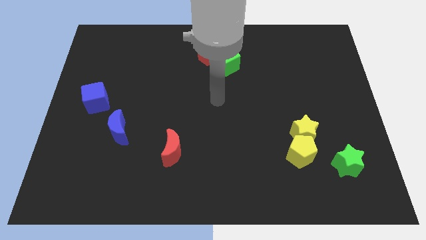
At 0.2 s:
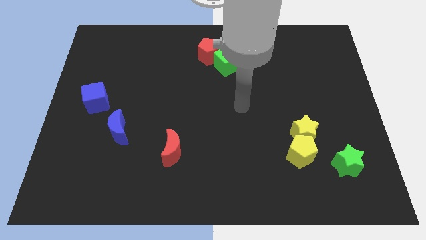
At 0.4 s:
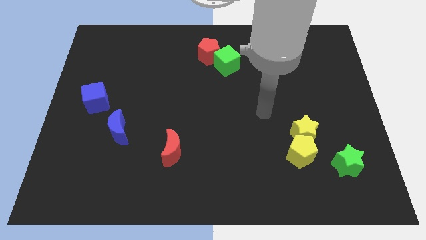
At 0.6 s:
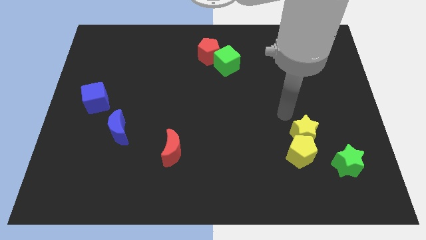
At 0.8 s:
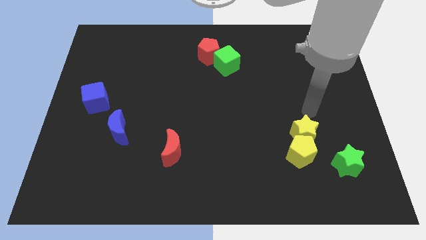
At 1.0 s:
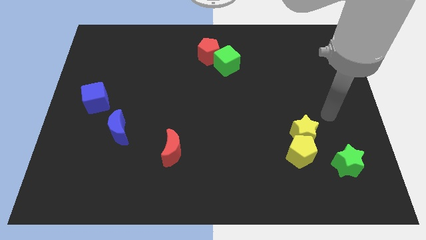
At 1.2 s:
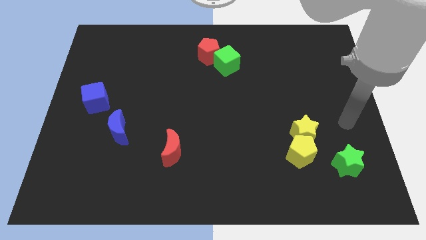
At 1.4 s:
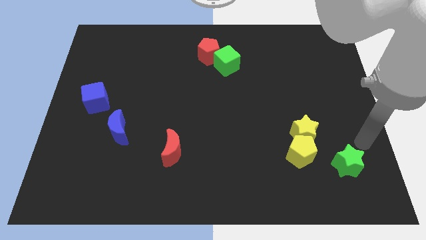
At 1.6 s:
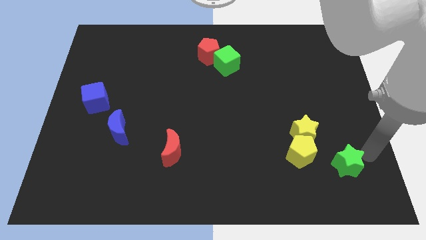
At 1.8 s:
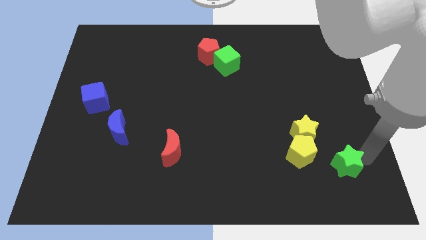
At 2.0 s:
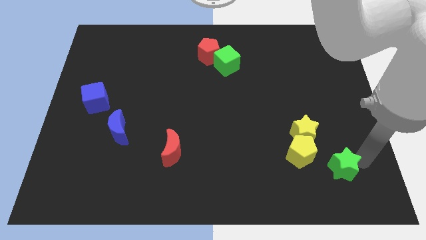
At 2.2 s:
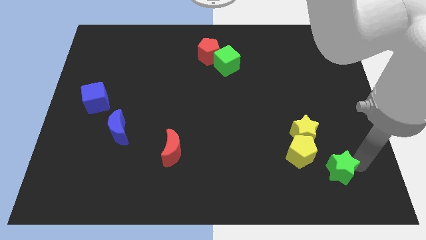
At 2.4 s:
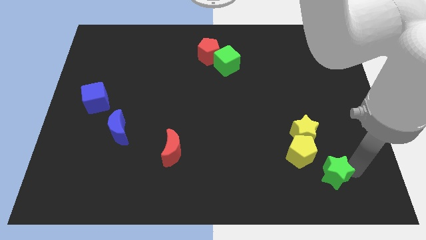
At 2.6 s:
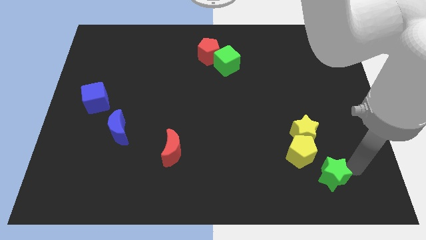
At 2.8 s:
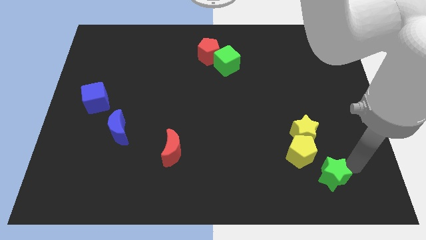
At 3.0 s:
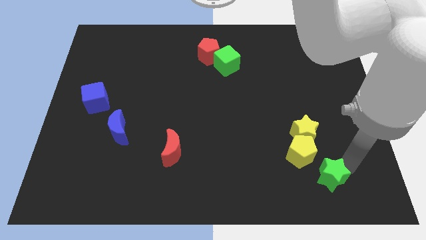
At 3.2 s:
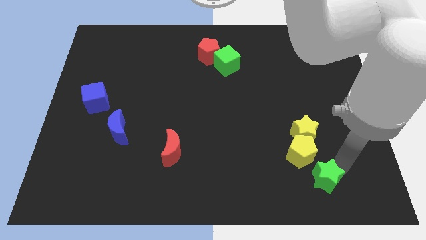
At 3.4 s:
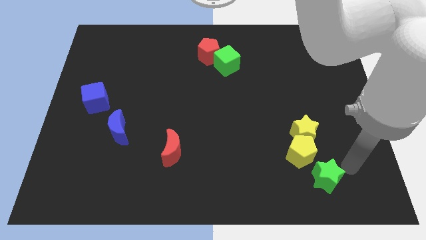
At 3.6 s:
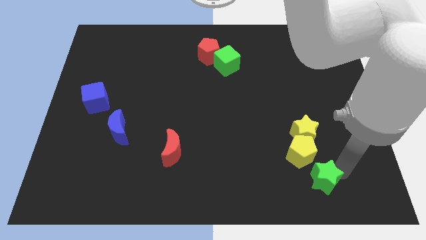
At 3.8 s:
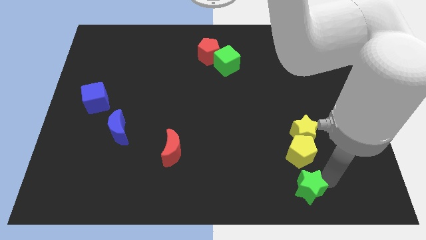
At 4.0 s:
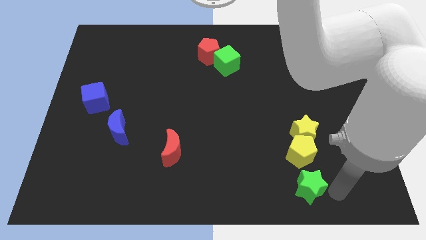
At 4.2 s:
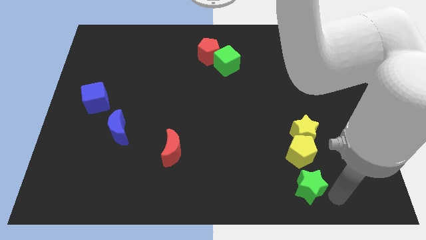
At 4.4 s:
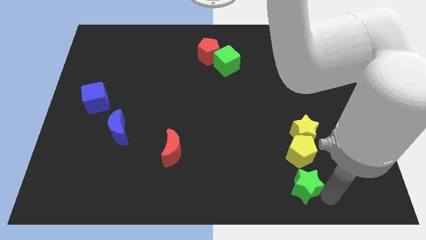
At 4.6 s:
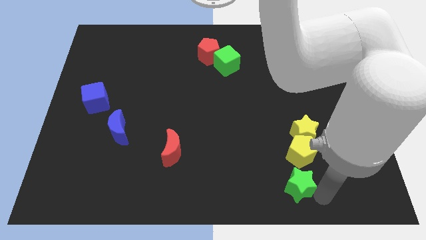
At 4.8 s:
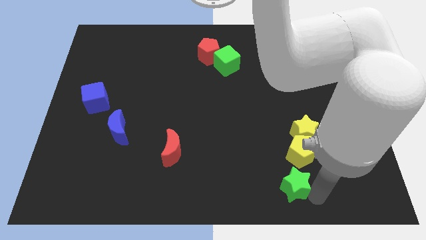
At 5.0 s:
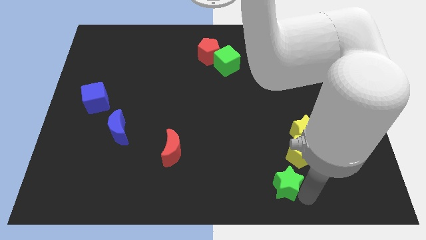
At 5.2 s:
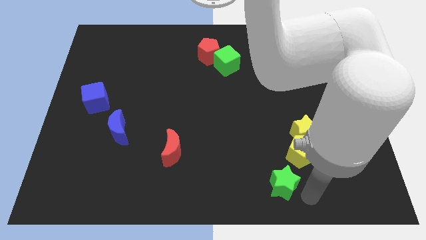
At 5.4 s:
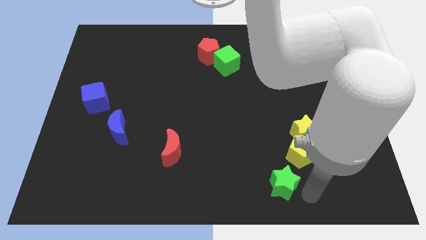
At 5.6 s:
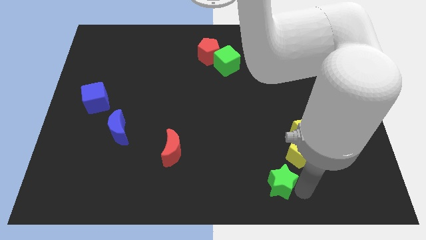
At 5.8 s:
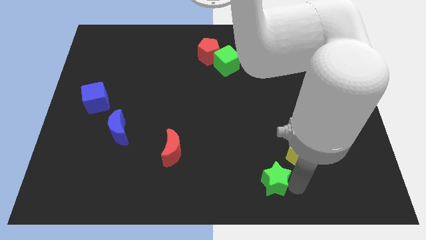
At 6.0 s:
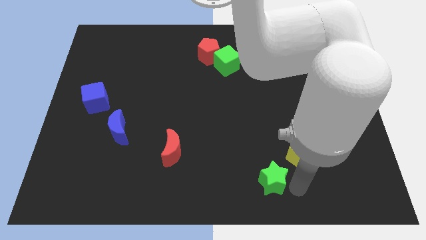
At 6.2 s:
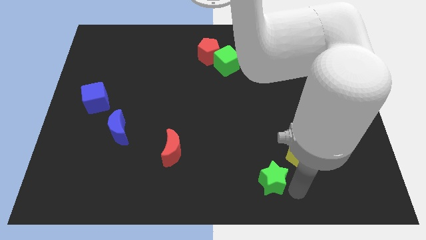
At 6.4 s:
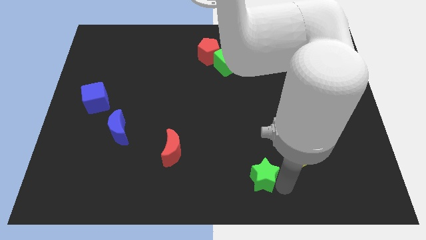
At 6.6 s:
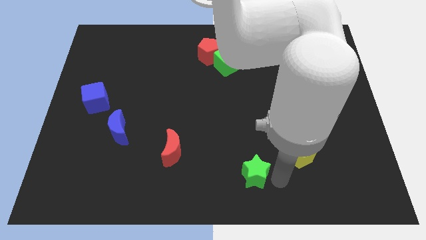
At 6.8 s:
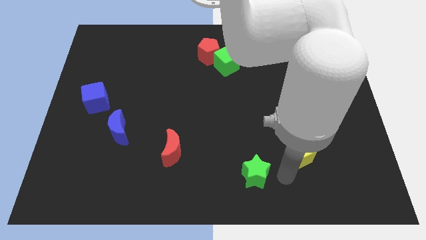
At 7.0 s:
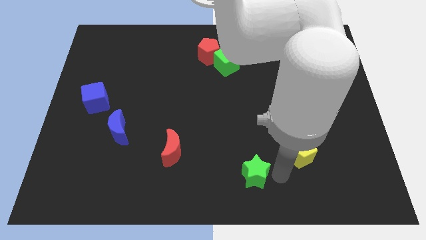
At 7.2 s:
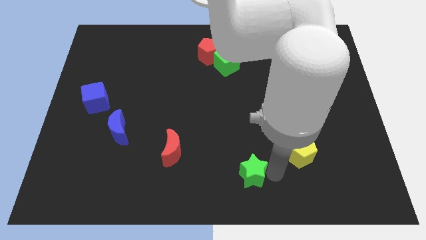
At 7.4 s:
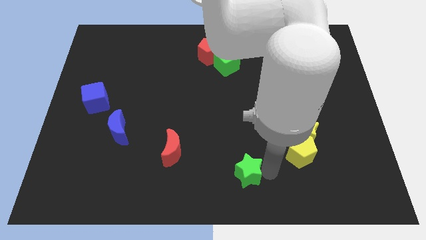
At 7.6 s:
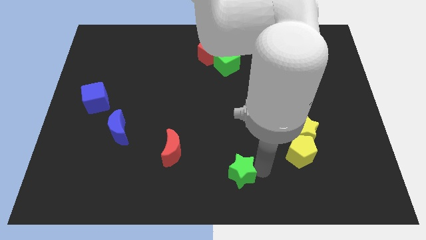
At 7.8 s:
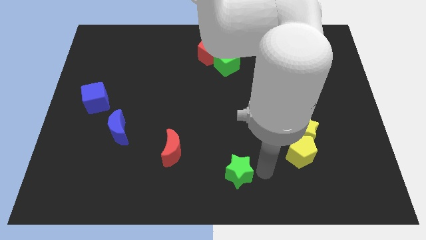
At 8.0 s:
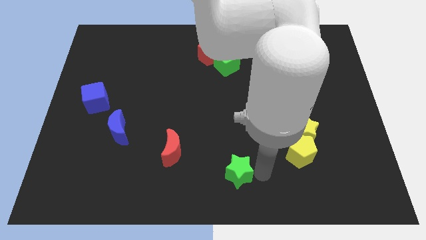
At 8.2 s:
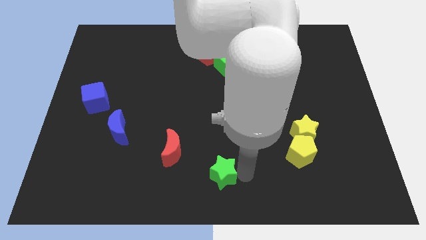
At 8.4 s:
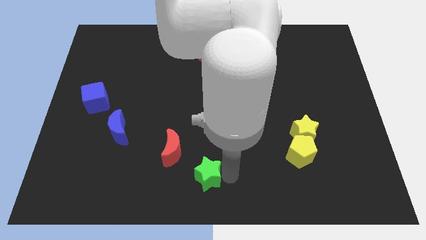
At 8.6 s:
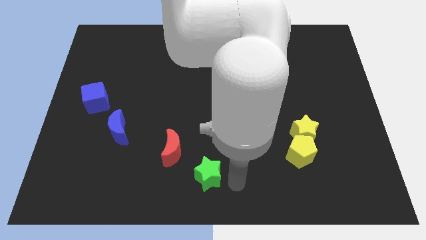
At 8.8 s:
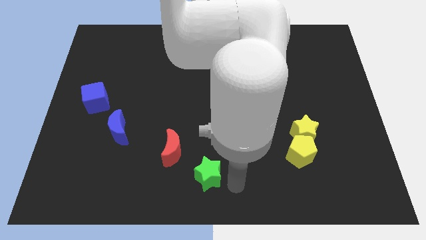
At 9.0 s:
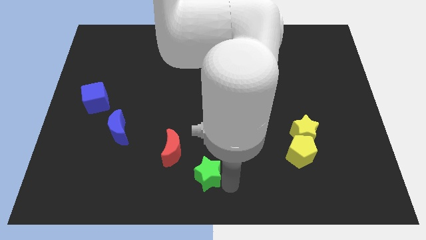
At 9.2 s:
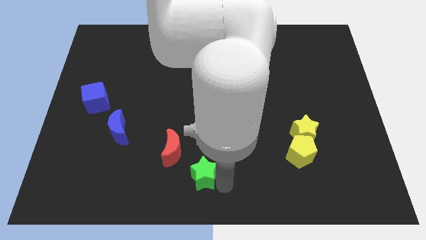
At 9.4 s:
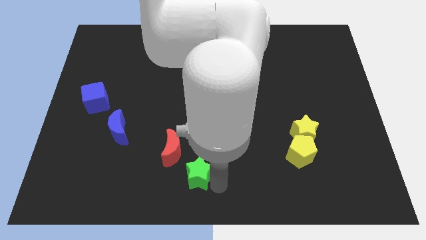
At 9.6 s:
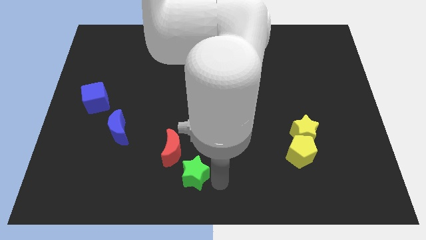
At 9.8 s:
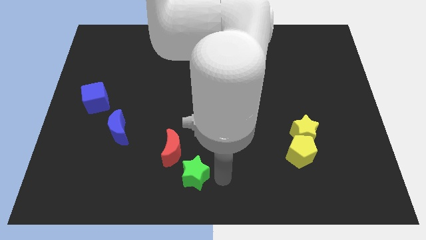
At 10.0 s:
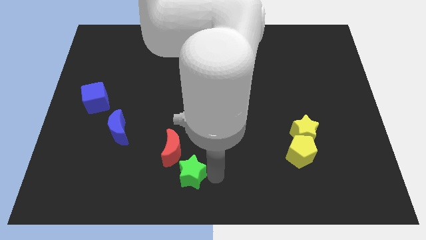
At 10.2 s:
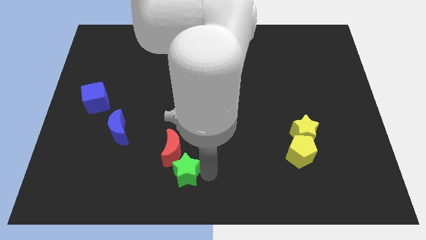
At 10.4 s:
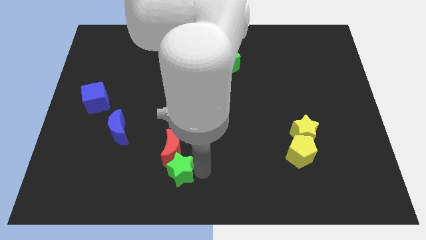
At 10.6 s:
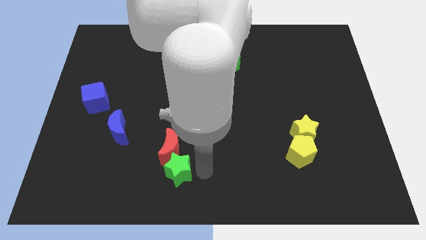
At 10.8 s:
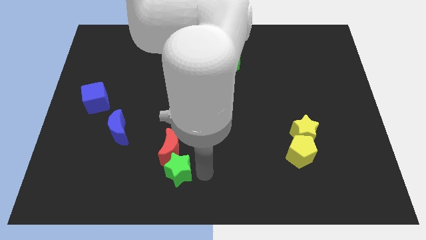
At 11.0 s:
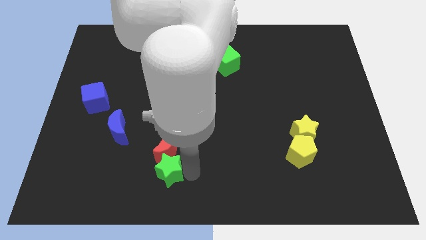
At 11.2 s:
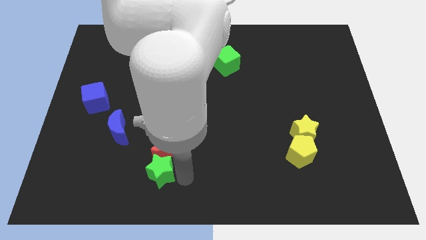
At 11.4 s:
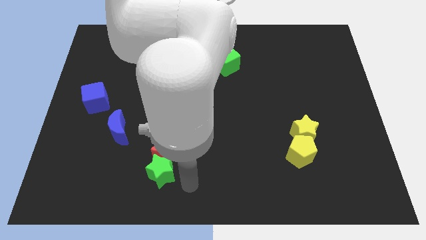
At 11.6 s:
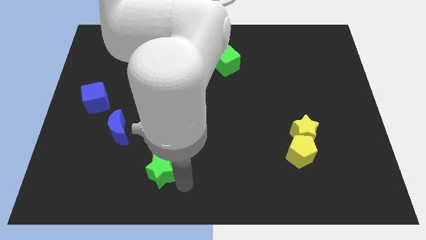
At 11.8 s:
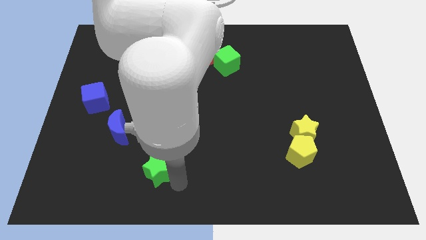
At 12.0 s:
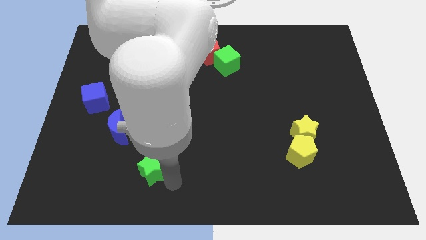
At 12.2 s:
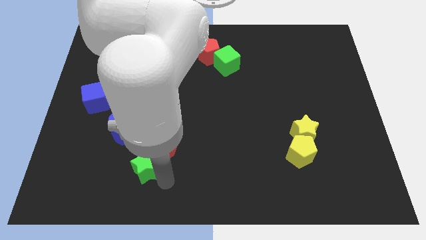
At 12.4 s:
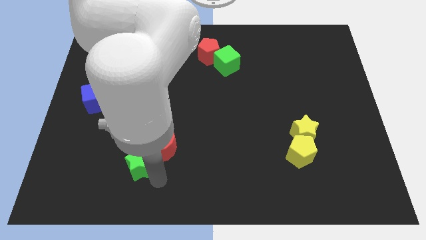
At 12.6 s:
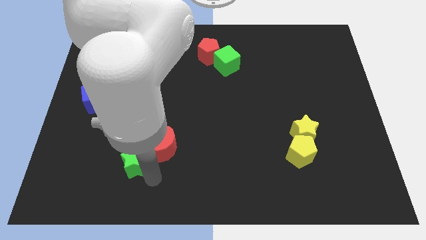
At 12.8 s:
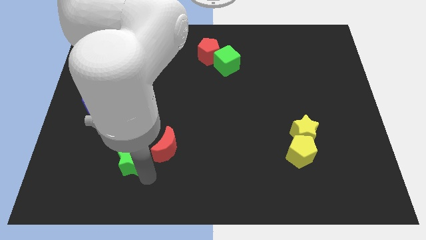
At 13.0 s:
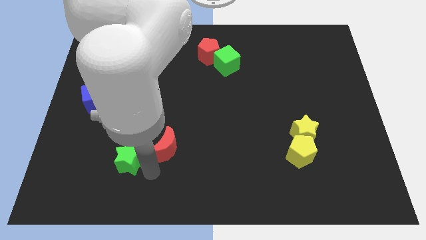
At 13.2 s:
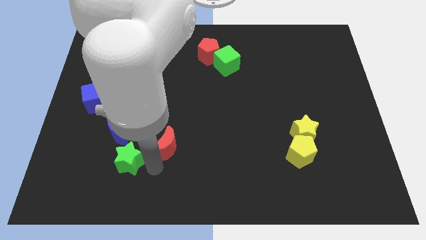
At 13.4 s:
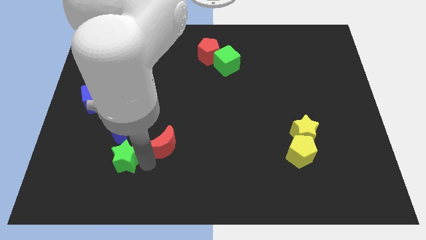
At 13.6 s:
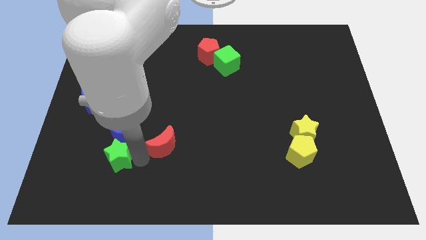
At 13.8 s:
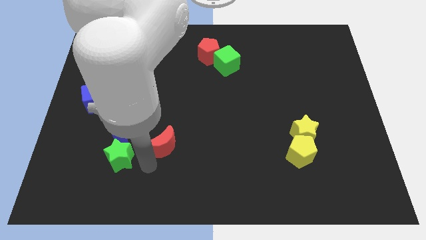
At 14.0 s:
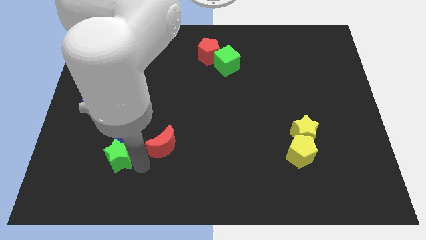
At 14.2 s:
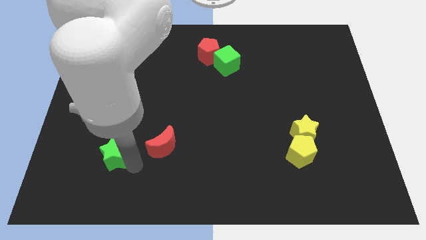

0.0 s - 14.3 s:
move the green star to the bottom left of the blue moon
